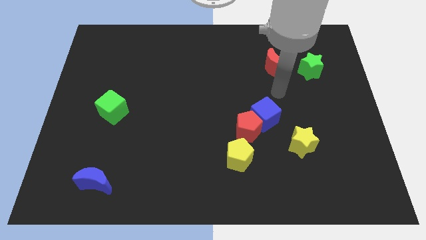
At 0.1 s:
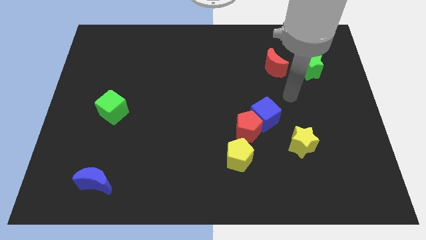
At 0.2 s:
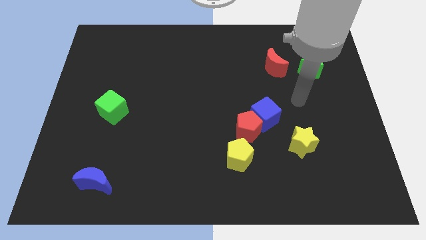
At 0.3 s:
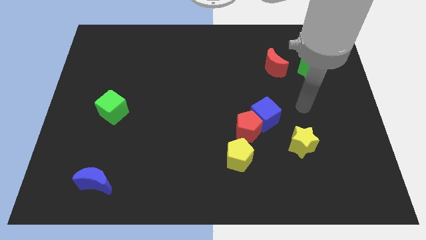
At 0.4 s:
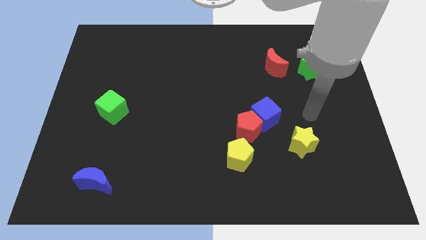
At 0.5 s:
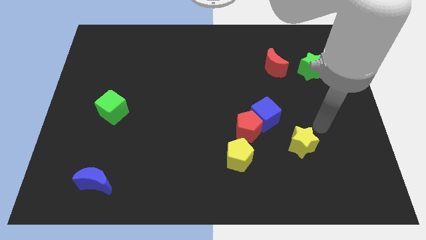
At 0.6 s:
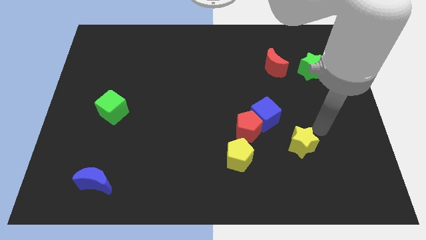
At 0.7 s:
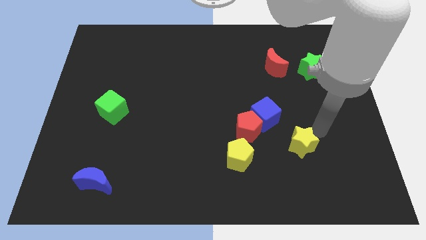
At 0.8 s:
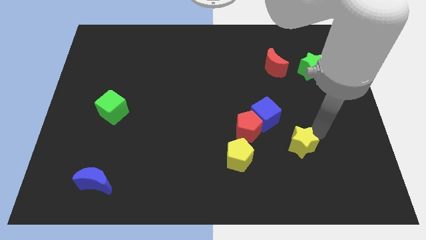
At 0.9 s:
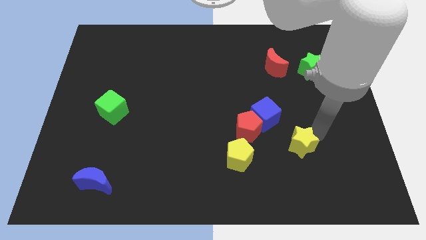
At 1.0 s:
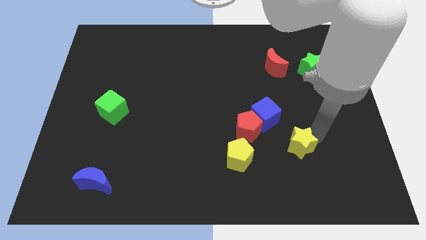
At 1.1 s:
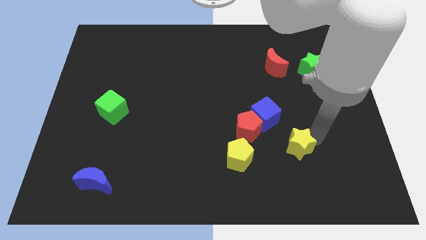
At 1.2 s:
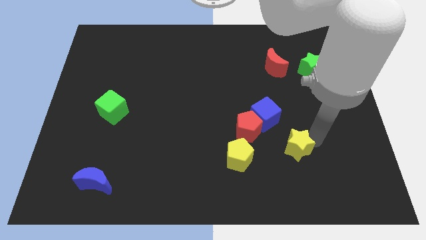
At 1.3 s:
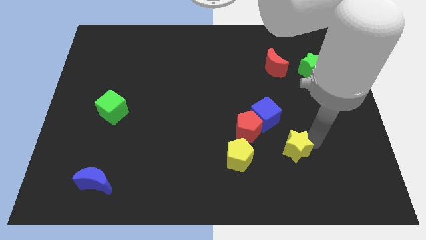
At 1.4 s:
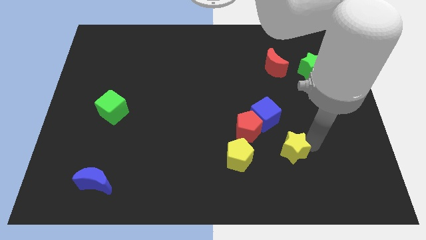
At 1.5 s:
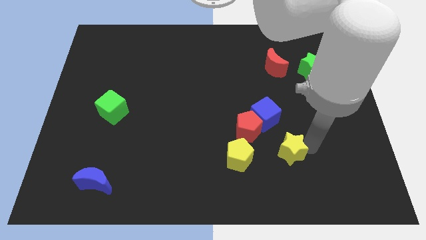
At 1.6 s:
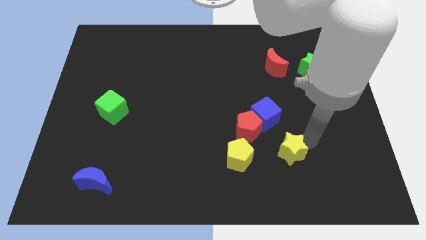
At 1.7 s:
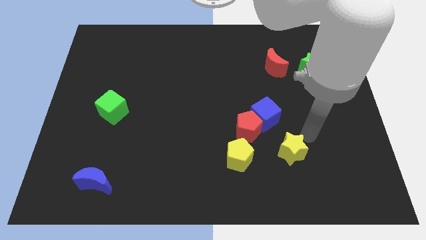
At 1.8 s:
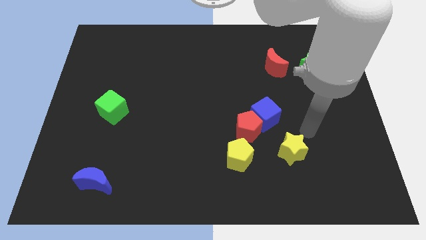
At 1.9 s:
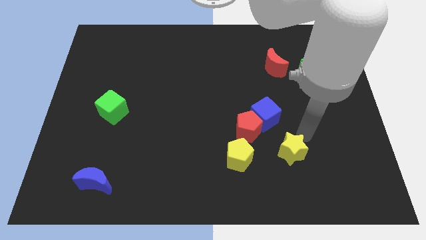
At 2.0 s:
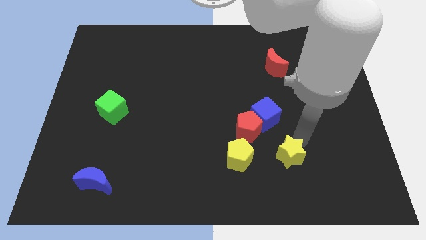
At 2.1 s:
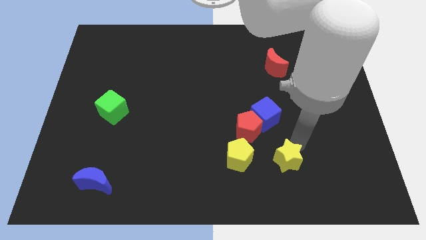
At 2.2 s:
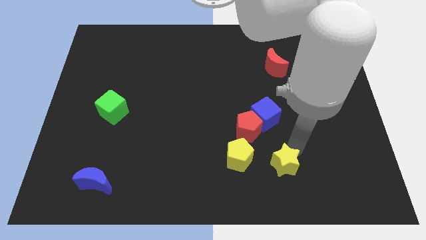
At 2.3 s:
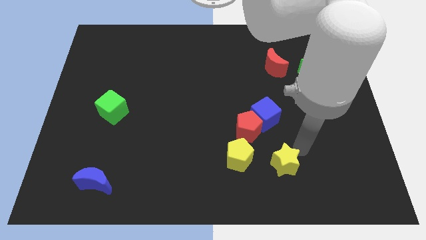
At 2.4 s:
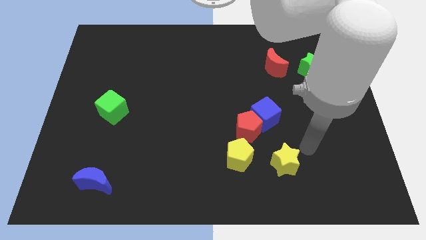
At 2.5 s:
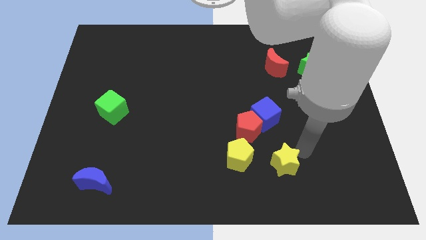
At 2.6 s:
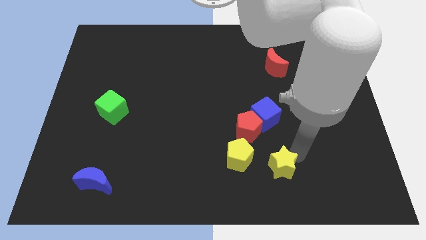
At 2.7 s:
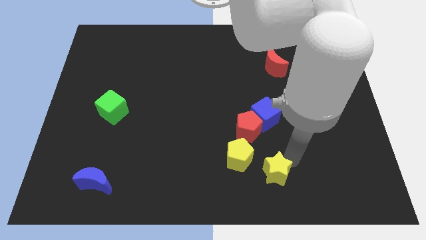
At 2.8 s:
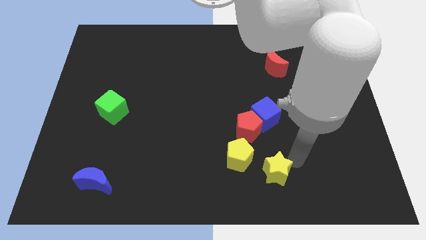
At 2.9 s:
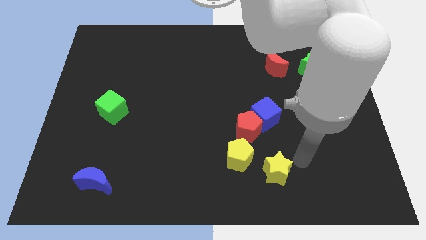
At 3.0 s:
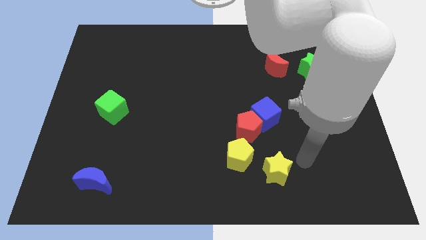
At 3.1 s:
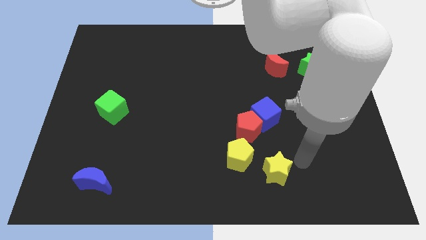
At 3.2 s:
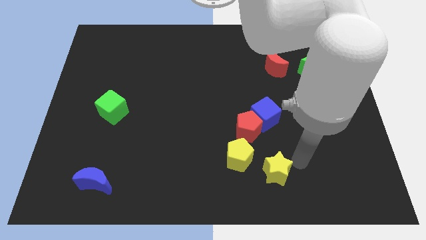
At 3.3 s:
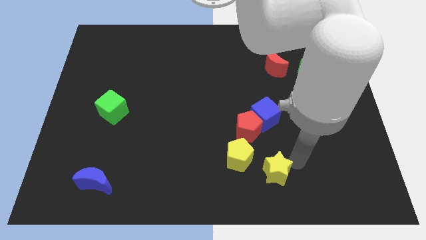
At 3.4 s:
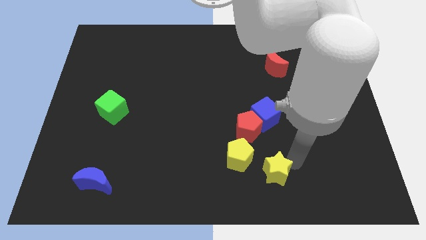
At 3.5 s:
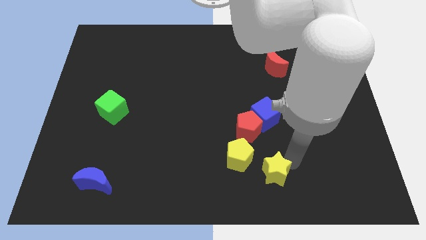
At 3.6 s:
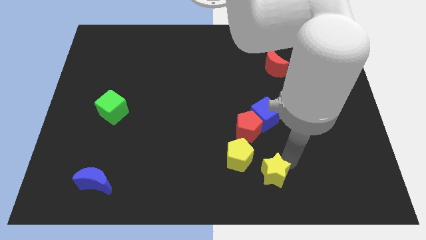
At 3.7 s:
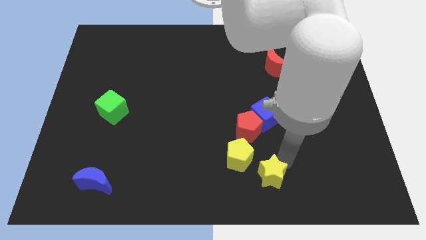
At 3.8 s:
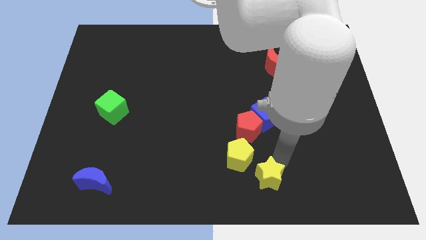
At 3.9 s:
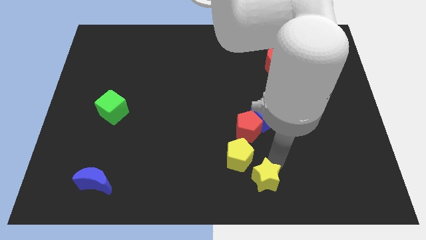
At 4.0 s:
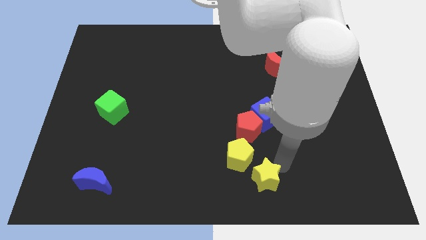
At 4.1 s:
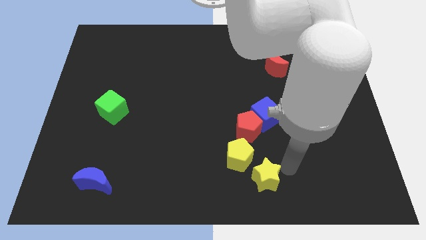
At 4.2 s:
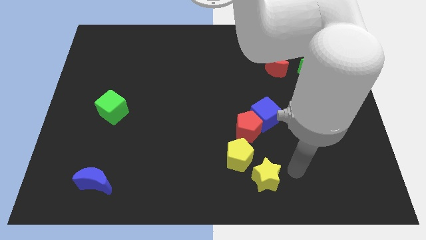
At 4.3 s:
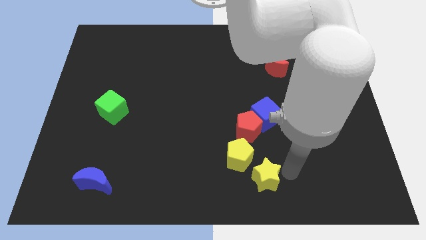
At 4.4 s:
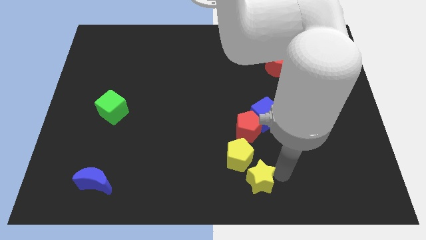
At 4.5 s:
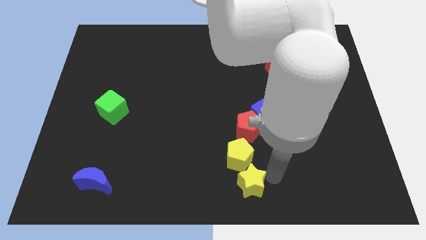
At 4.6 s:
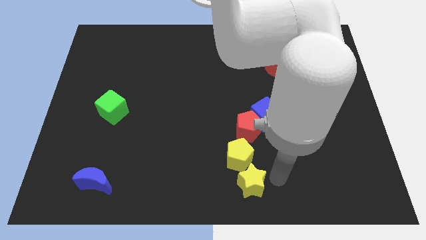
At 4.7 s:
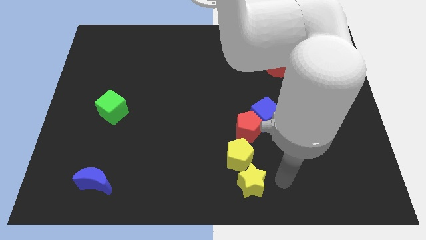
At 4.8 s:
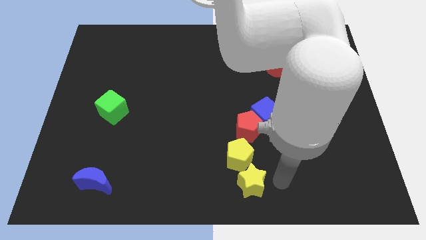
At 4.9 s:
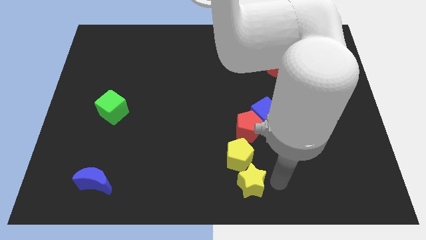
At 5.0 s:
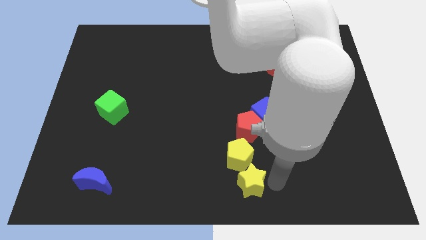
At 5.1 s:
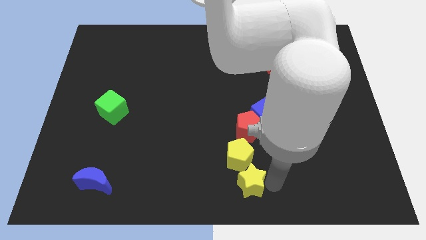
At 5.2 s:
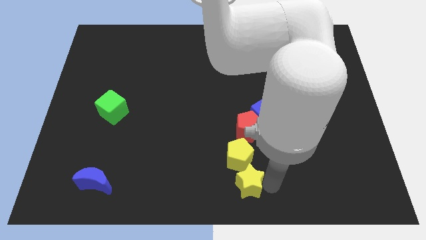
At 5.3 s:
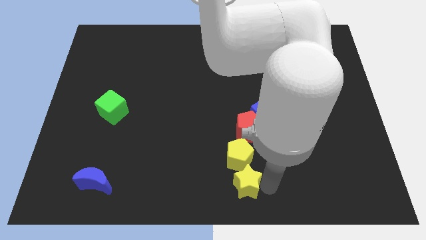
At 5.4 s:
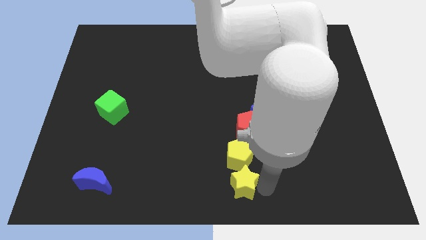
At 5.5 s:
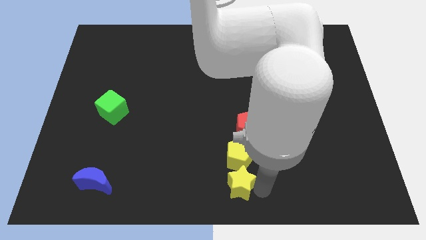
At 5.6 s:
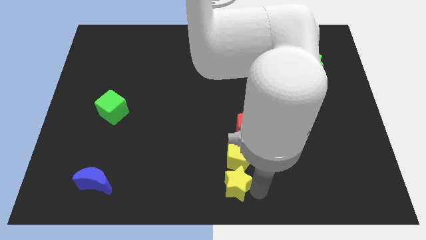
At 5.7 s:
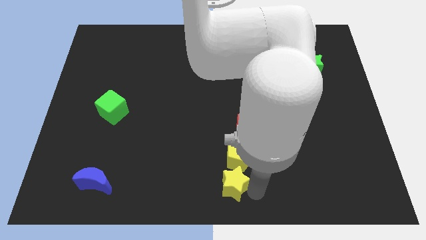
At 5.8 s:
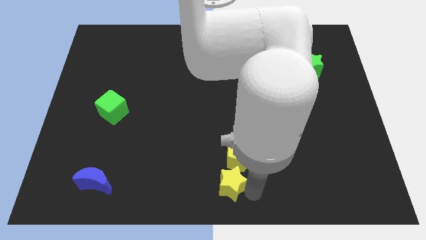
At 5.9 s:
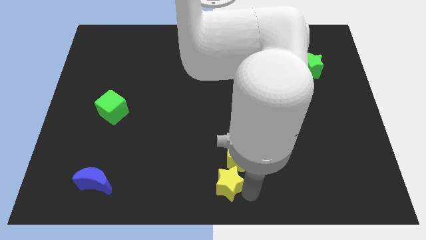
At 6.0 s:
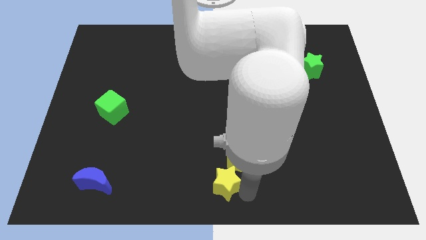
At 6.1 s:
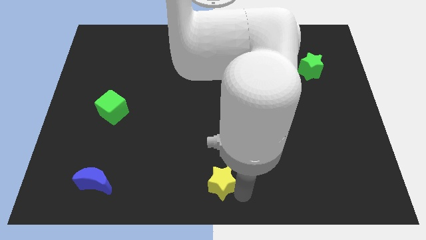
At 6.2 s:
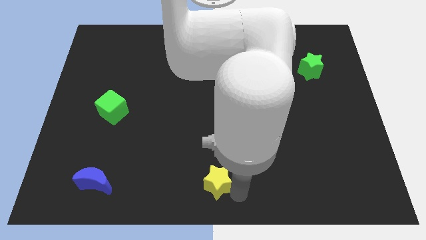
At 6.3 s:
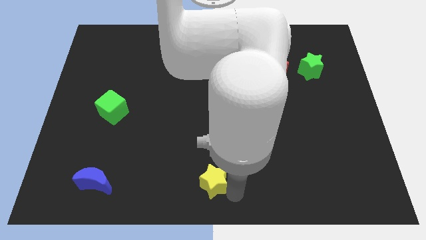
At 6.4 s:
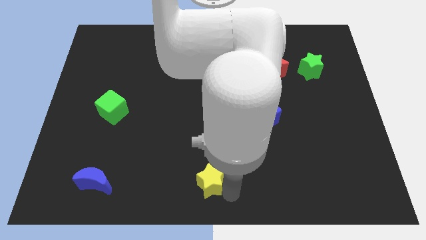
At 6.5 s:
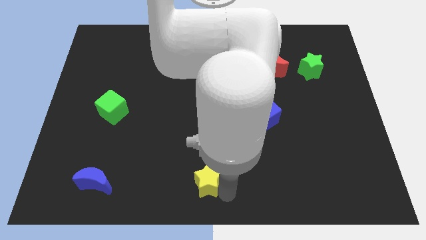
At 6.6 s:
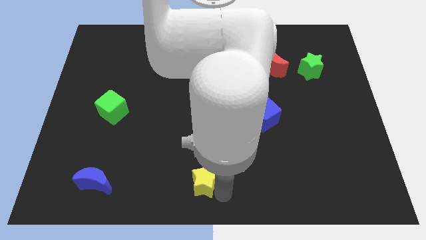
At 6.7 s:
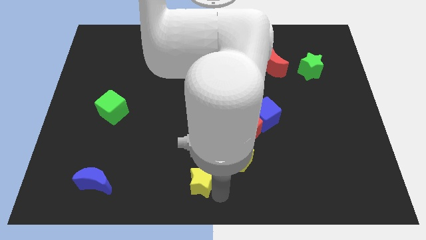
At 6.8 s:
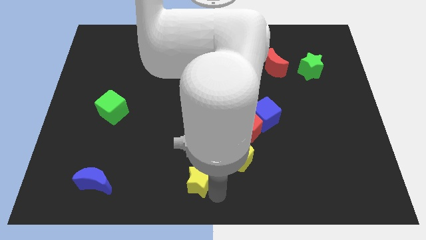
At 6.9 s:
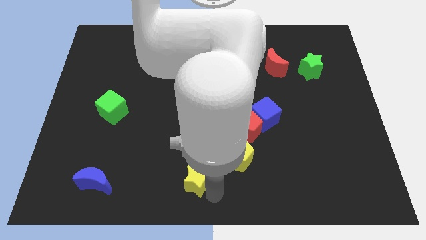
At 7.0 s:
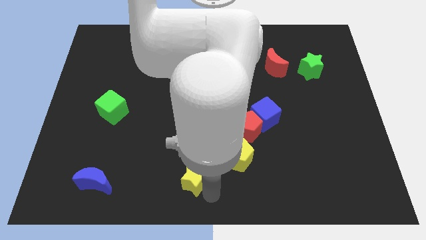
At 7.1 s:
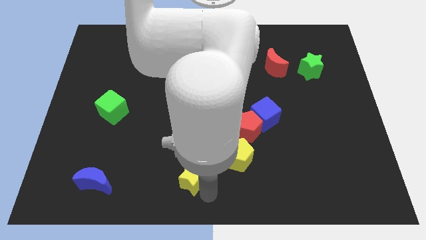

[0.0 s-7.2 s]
push the yellow star left

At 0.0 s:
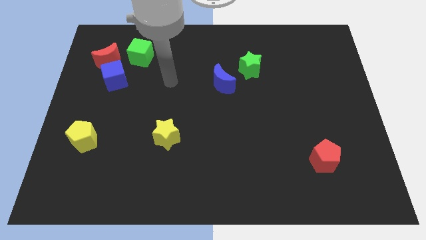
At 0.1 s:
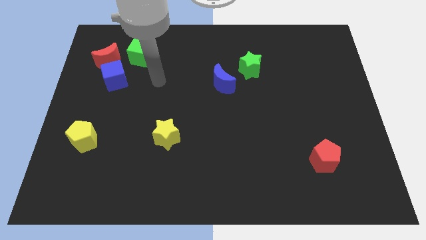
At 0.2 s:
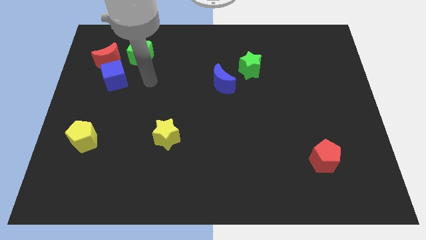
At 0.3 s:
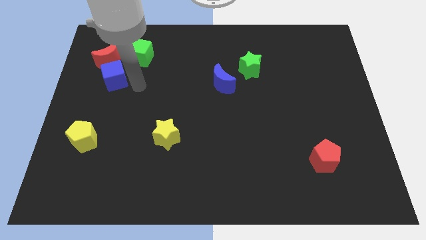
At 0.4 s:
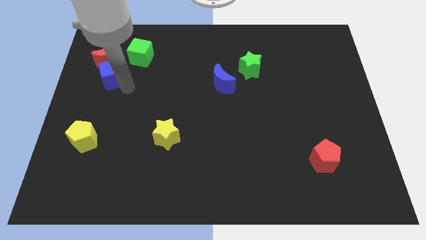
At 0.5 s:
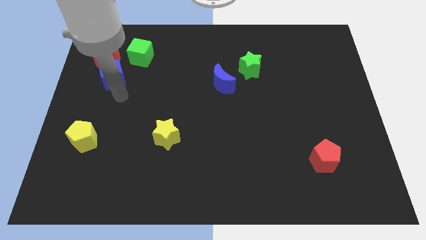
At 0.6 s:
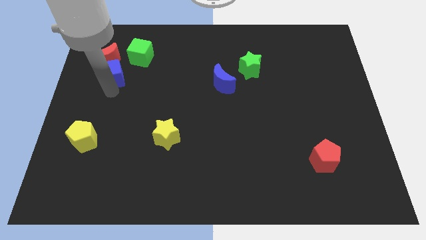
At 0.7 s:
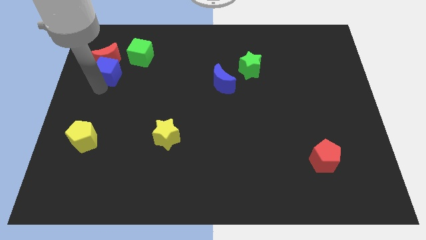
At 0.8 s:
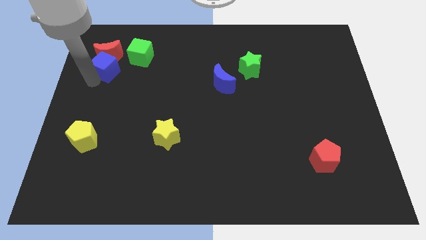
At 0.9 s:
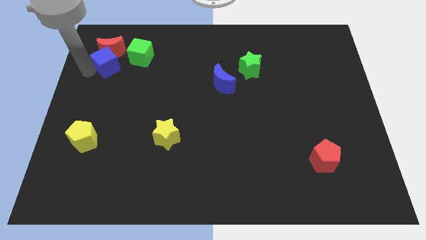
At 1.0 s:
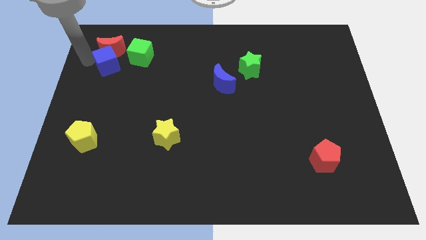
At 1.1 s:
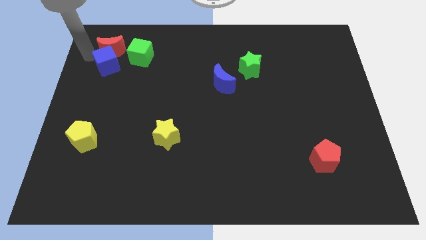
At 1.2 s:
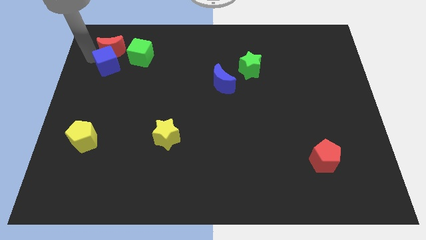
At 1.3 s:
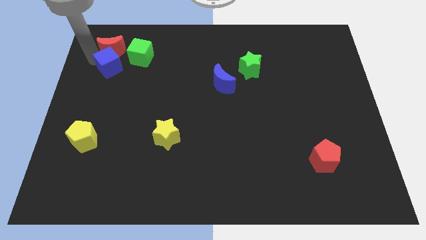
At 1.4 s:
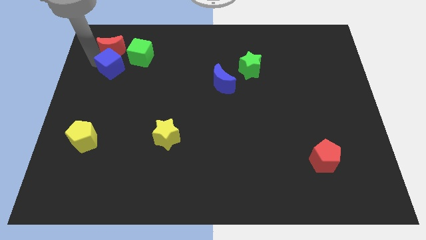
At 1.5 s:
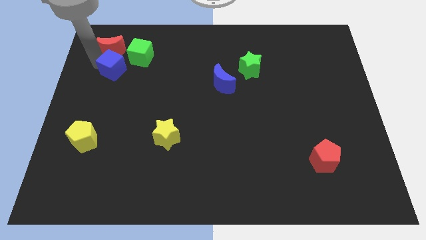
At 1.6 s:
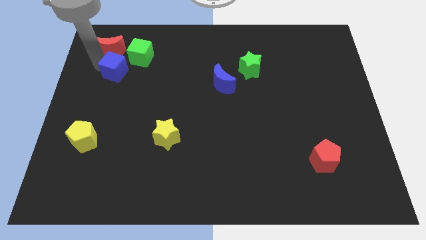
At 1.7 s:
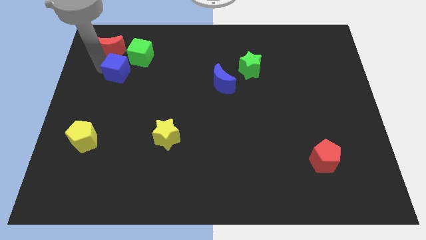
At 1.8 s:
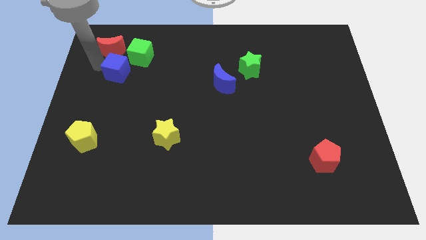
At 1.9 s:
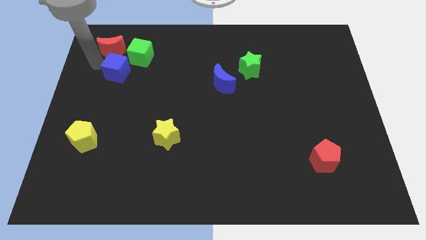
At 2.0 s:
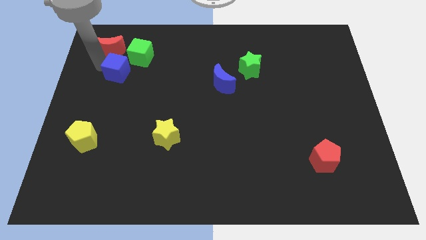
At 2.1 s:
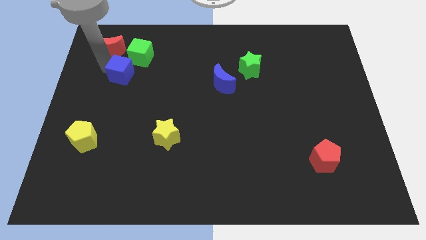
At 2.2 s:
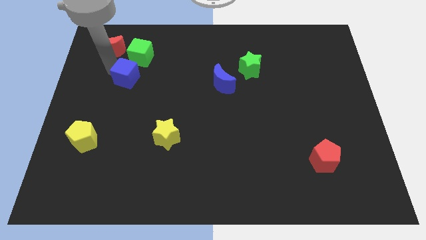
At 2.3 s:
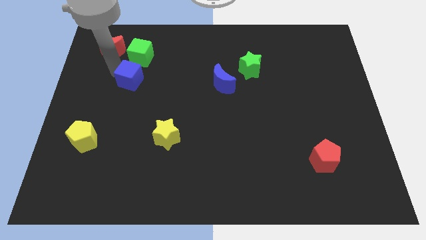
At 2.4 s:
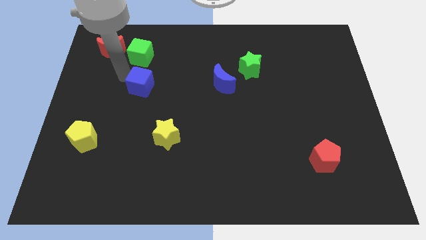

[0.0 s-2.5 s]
slide the blue cube to the right somewhat
